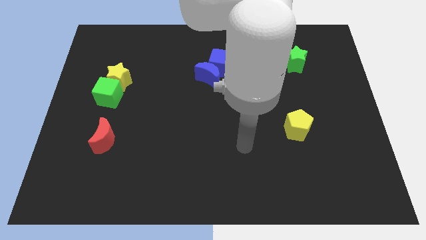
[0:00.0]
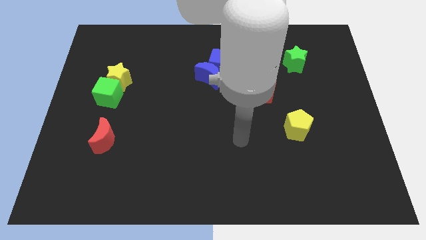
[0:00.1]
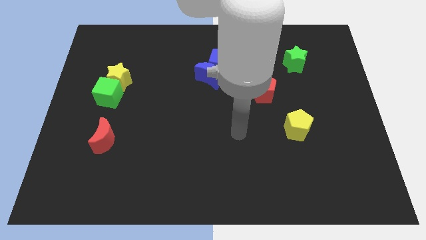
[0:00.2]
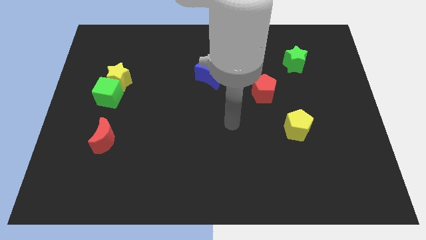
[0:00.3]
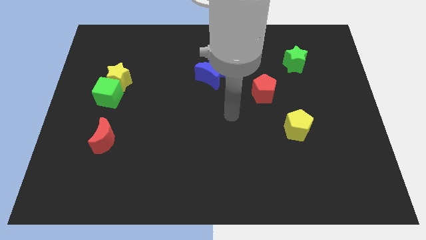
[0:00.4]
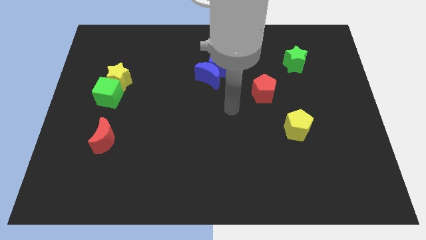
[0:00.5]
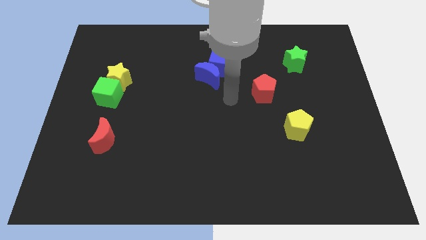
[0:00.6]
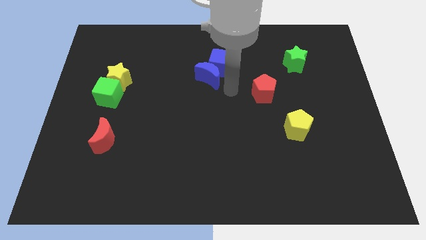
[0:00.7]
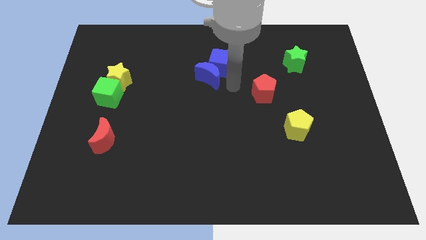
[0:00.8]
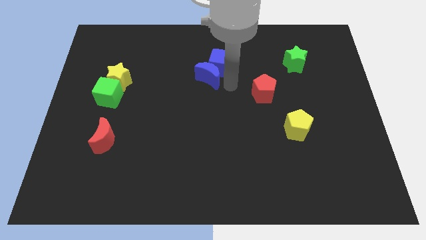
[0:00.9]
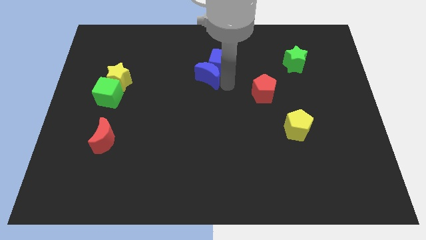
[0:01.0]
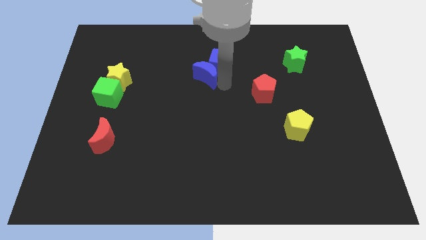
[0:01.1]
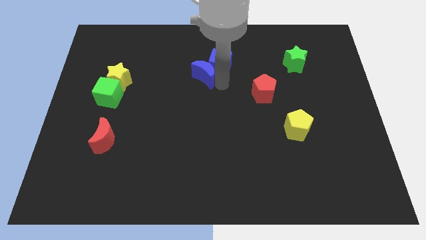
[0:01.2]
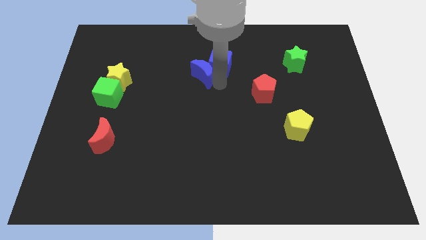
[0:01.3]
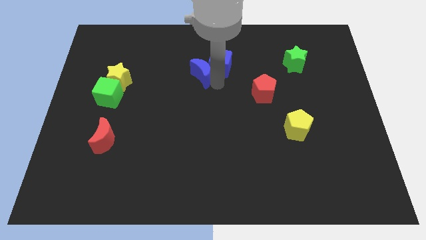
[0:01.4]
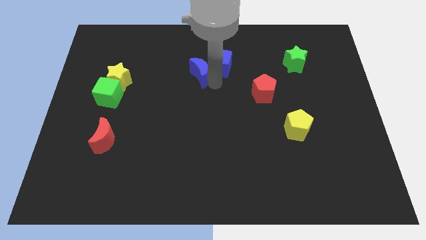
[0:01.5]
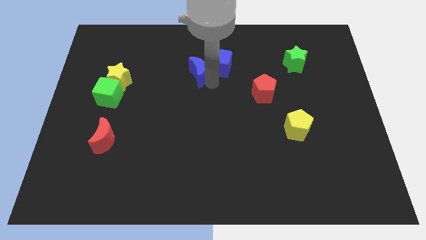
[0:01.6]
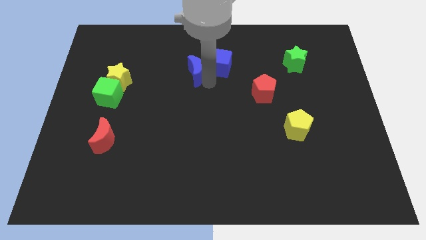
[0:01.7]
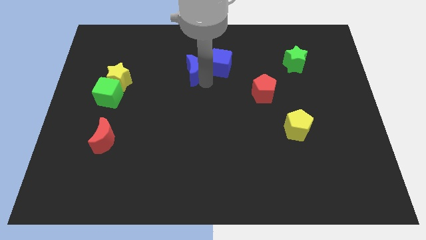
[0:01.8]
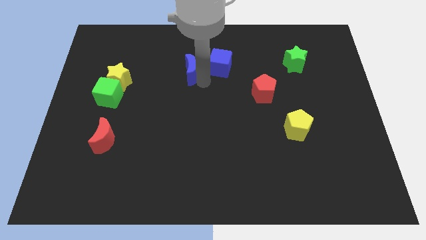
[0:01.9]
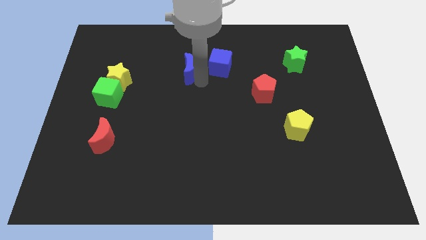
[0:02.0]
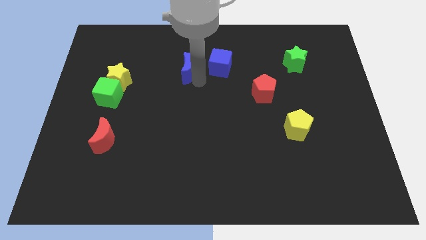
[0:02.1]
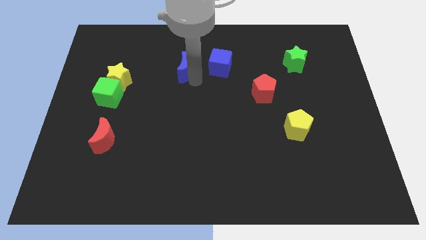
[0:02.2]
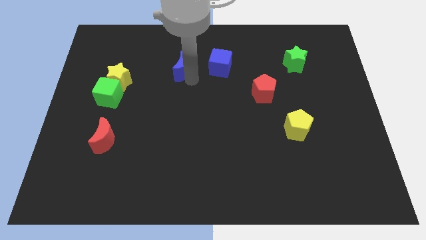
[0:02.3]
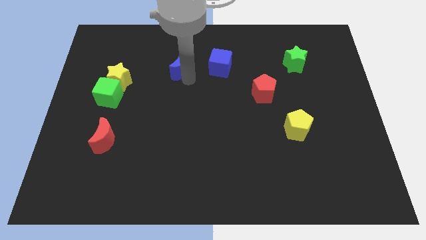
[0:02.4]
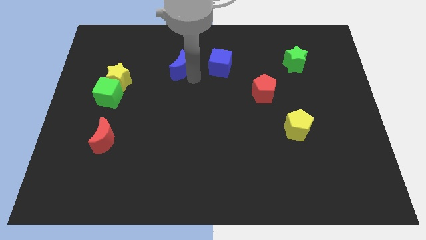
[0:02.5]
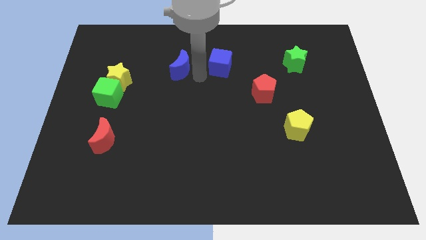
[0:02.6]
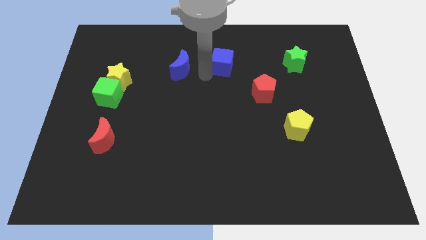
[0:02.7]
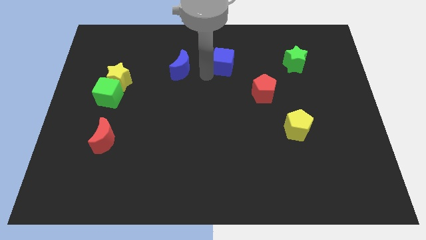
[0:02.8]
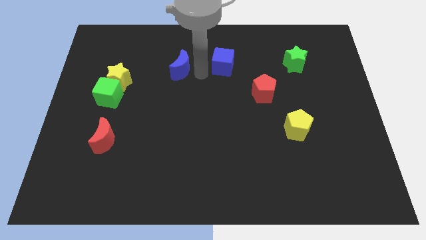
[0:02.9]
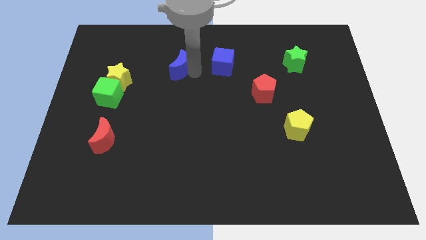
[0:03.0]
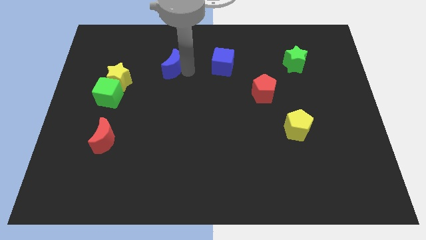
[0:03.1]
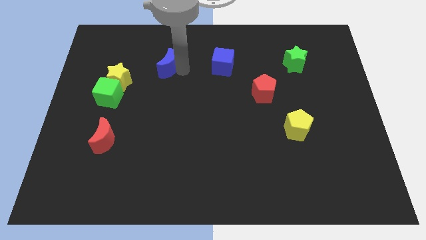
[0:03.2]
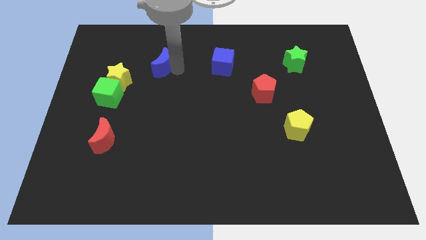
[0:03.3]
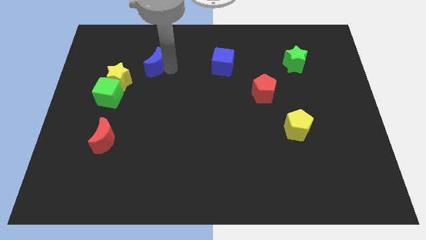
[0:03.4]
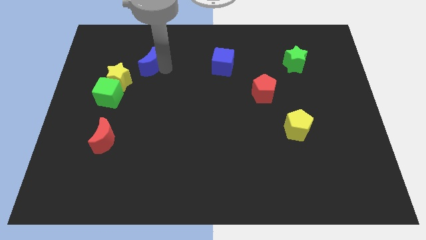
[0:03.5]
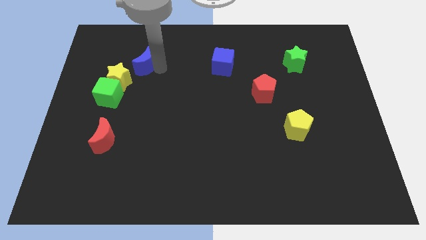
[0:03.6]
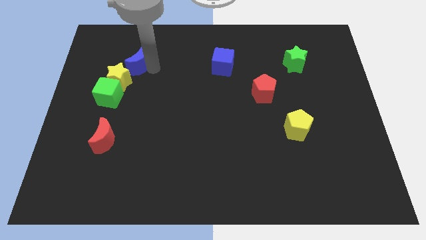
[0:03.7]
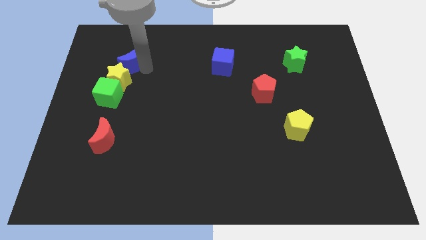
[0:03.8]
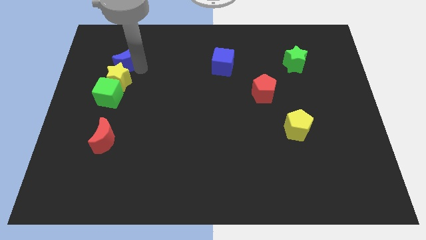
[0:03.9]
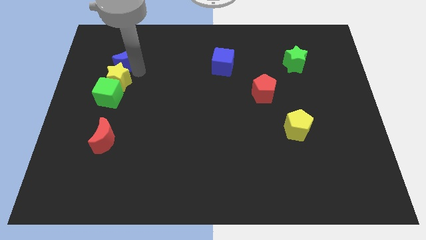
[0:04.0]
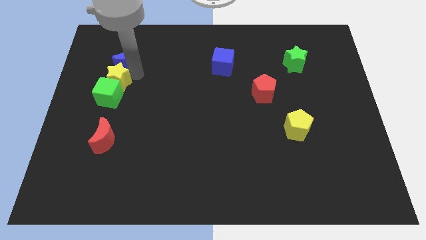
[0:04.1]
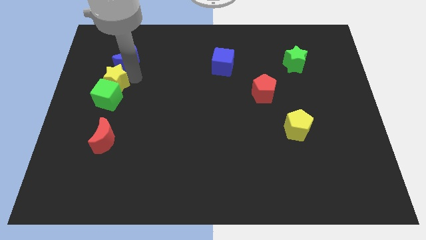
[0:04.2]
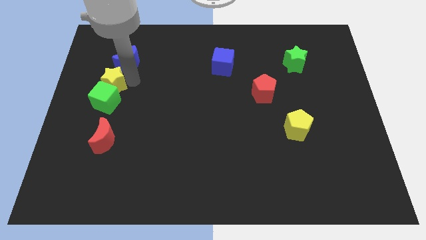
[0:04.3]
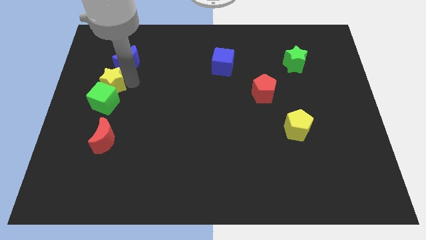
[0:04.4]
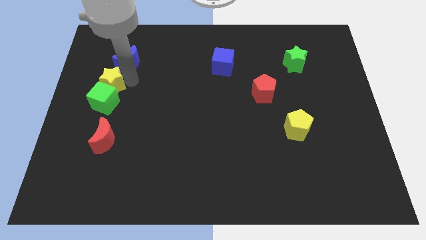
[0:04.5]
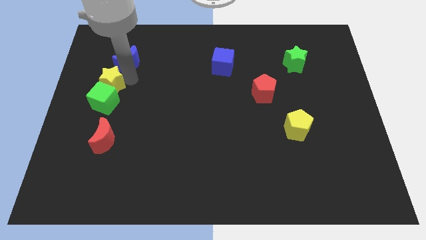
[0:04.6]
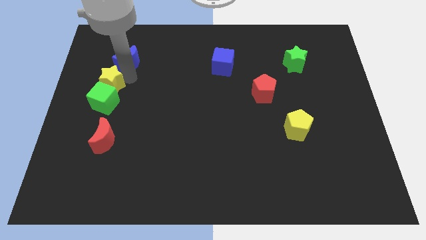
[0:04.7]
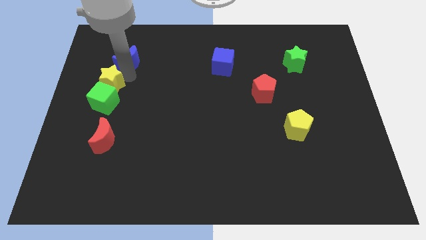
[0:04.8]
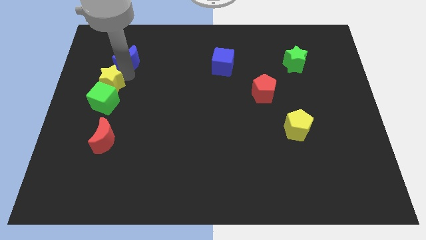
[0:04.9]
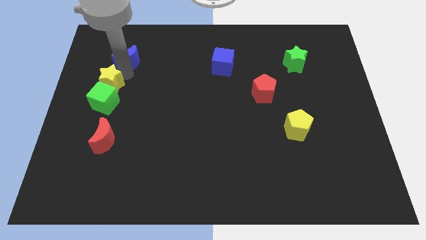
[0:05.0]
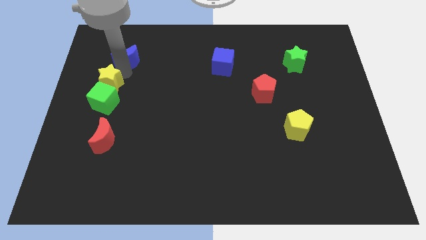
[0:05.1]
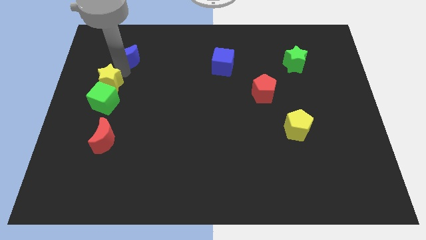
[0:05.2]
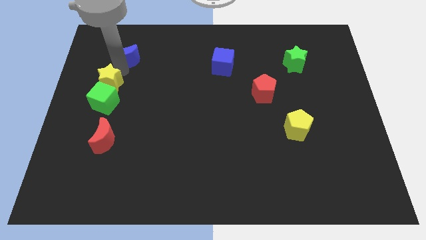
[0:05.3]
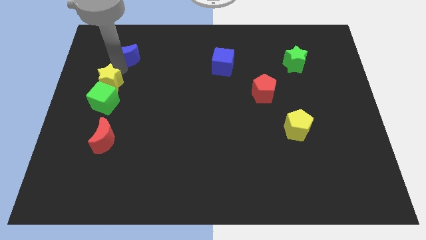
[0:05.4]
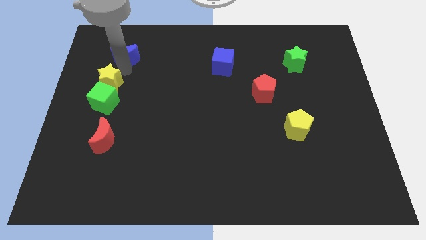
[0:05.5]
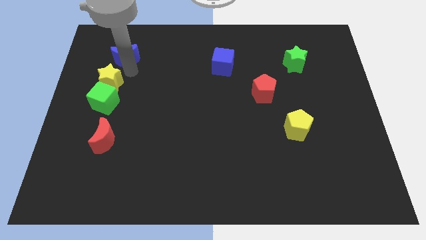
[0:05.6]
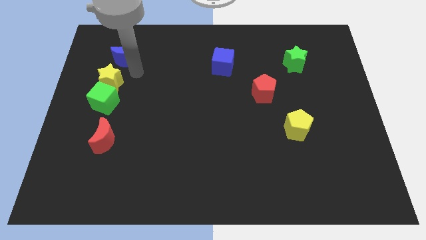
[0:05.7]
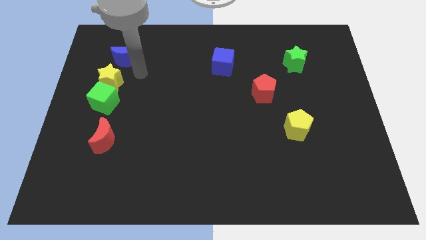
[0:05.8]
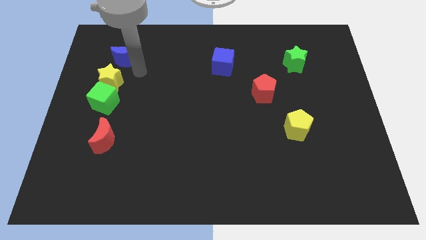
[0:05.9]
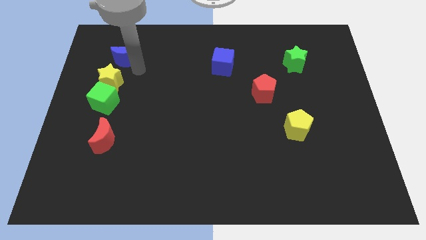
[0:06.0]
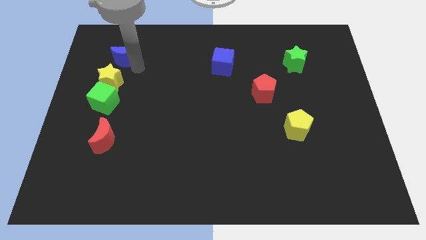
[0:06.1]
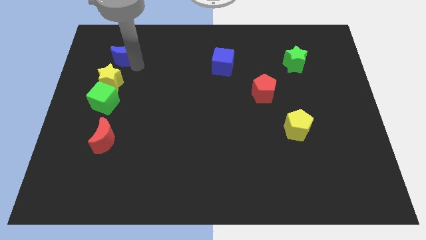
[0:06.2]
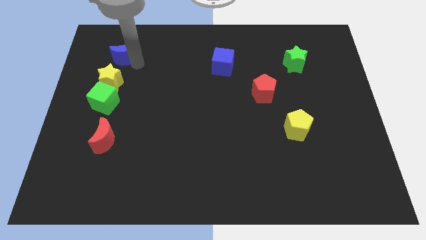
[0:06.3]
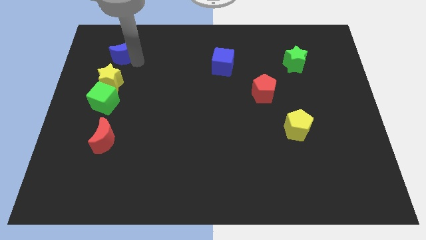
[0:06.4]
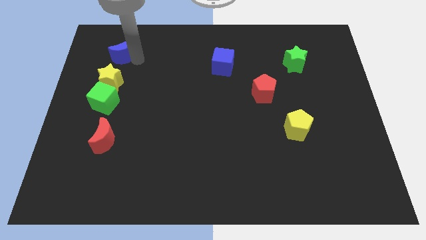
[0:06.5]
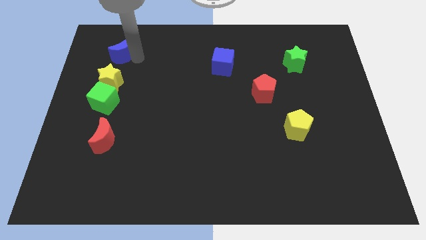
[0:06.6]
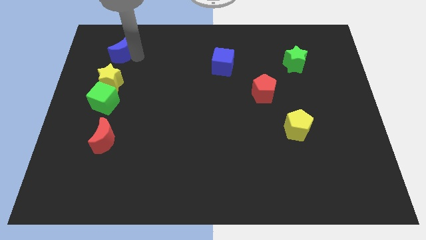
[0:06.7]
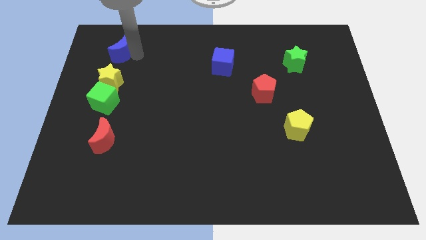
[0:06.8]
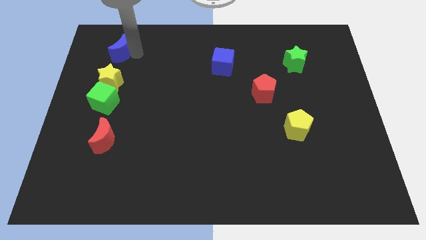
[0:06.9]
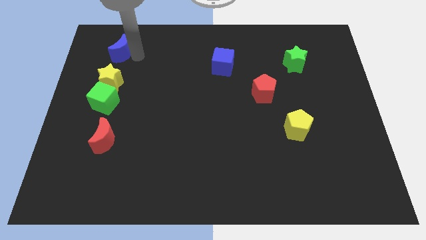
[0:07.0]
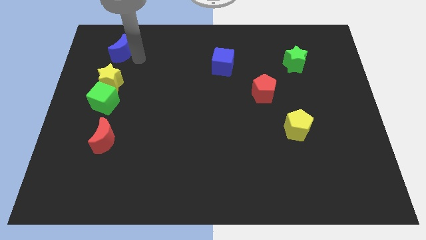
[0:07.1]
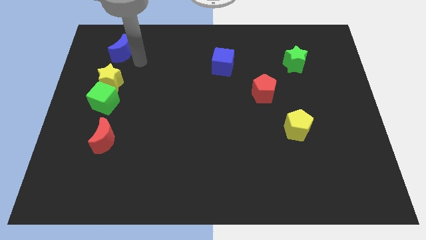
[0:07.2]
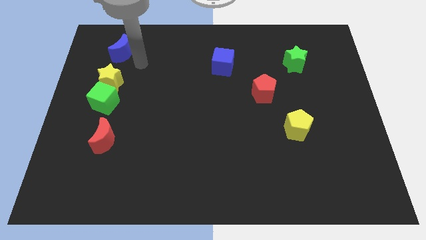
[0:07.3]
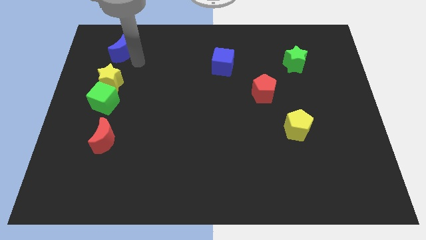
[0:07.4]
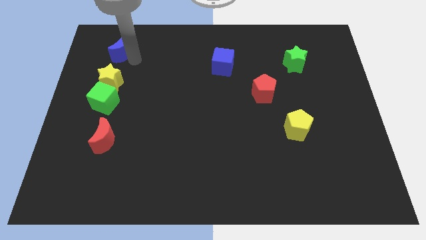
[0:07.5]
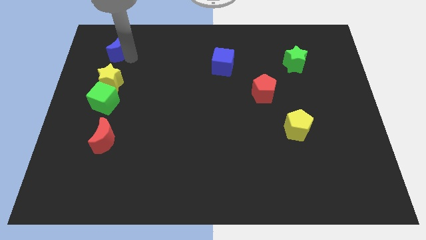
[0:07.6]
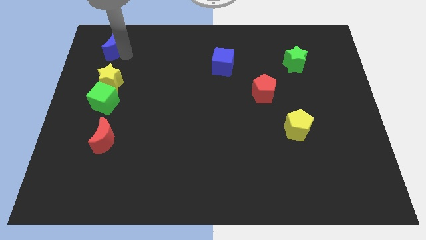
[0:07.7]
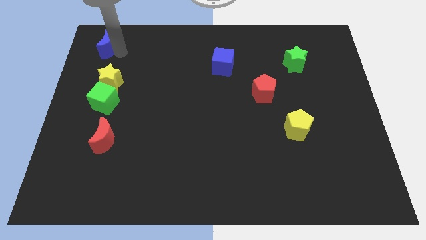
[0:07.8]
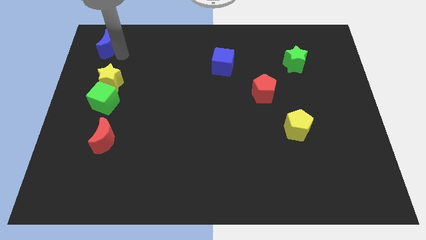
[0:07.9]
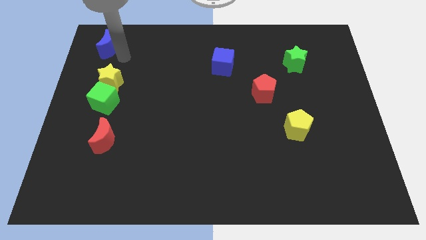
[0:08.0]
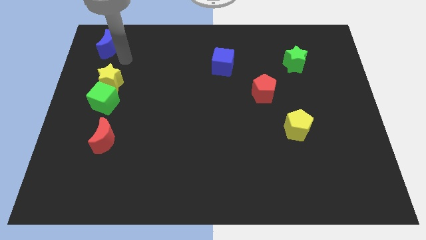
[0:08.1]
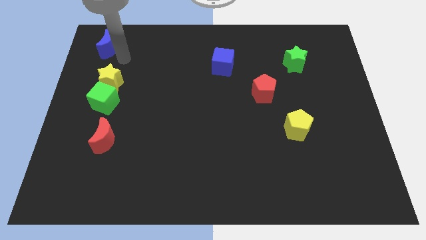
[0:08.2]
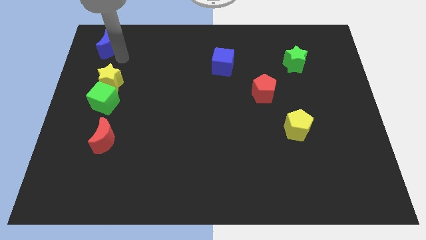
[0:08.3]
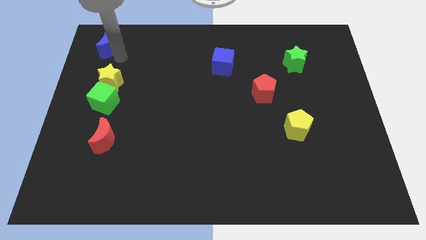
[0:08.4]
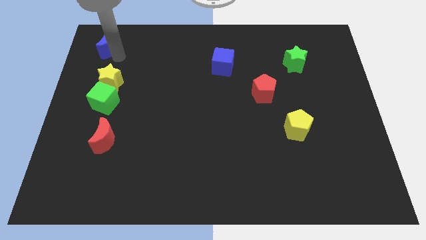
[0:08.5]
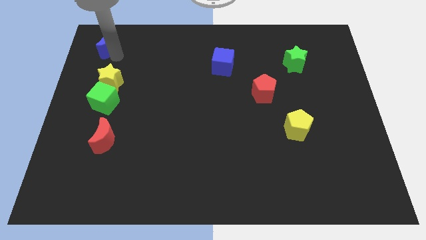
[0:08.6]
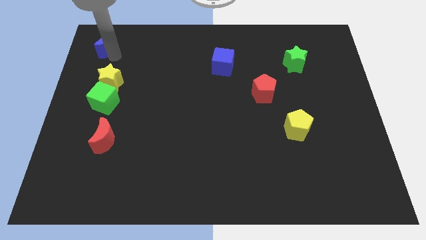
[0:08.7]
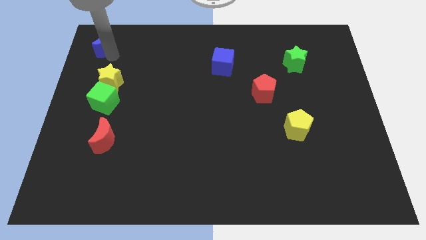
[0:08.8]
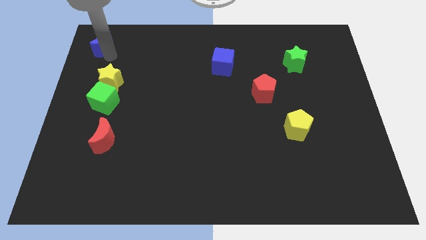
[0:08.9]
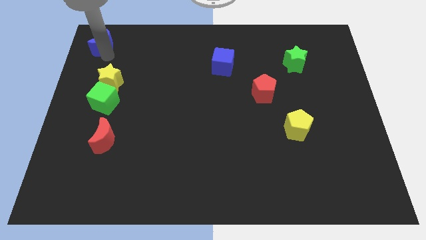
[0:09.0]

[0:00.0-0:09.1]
move the blue moon to the top left
